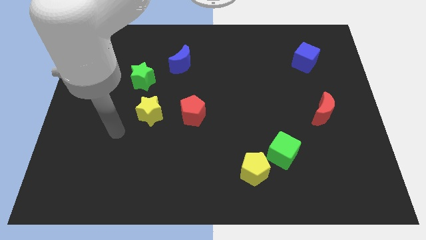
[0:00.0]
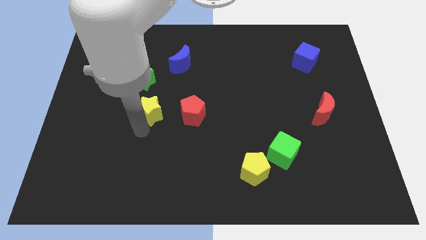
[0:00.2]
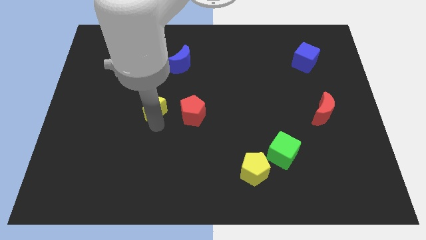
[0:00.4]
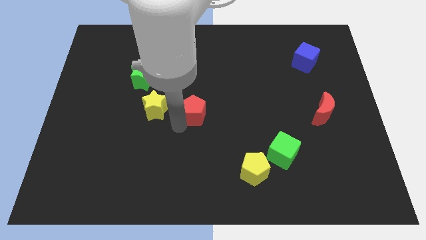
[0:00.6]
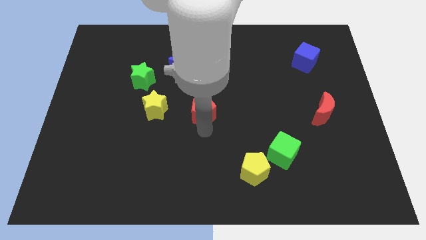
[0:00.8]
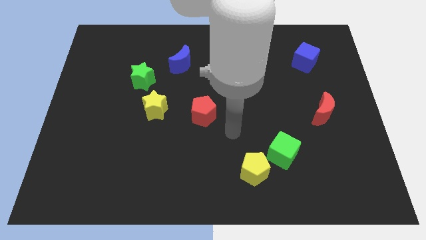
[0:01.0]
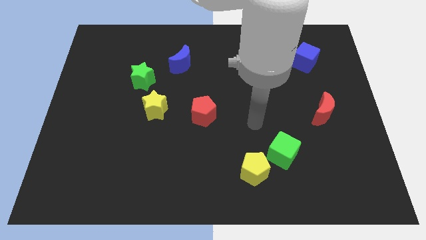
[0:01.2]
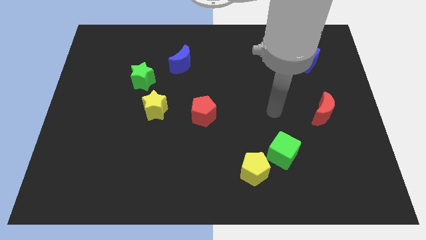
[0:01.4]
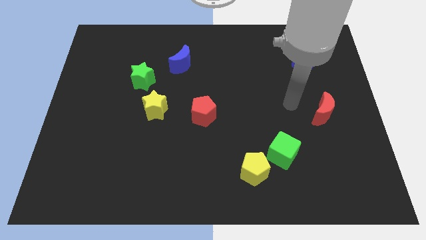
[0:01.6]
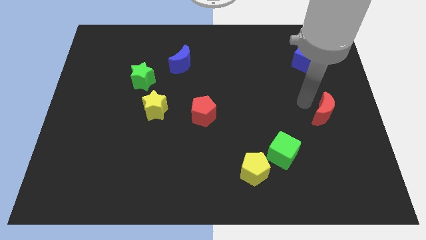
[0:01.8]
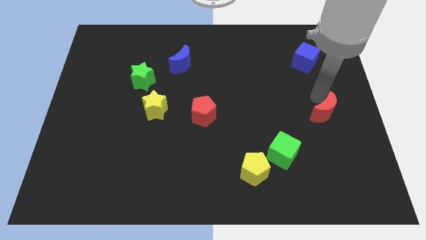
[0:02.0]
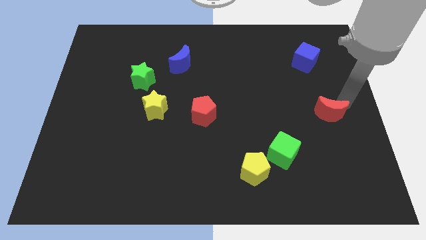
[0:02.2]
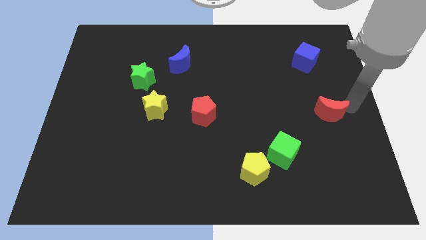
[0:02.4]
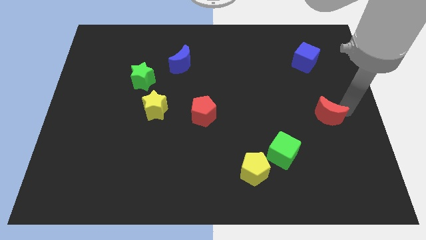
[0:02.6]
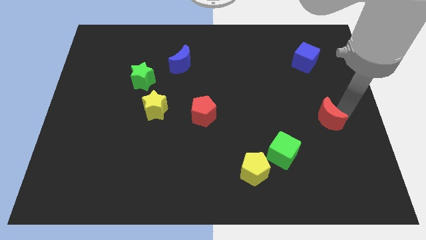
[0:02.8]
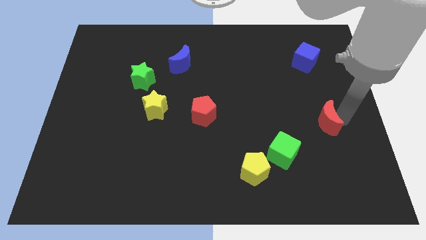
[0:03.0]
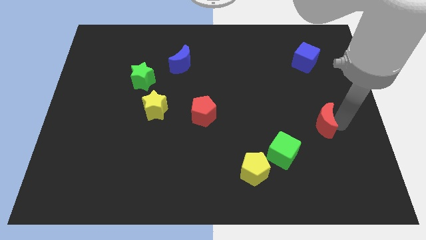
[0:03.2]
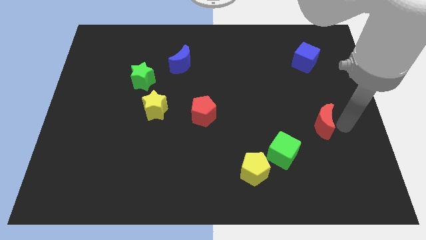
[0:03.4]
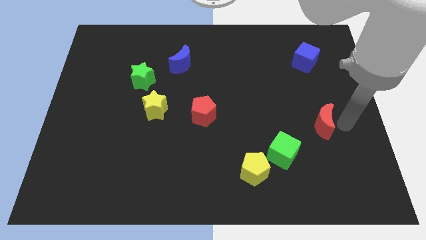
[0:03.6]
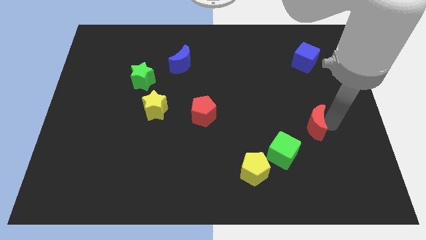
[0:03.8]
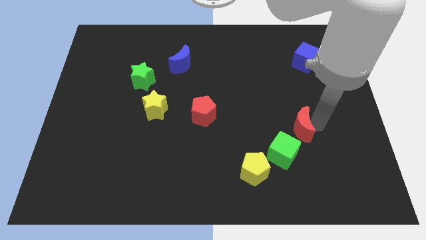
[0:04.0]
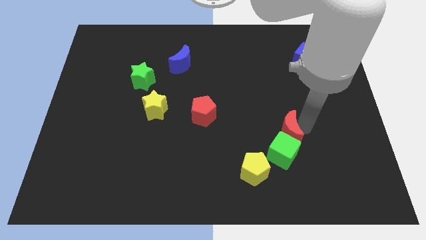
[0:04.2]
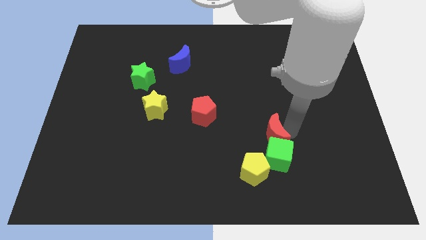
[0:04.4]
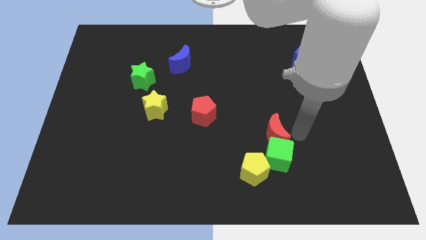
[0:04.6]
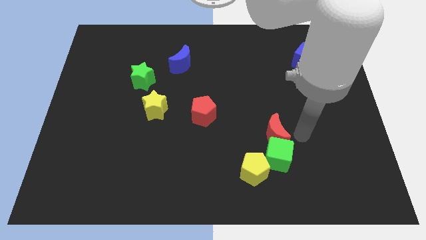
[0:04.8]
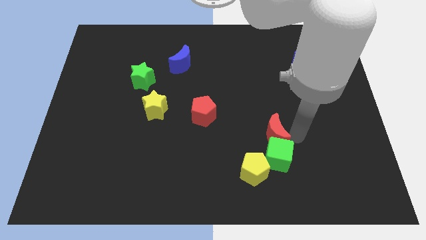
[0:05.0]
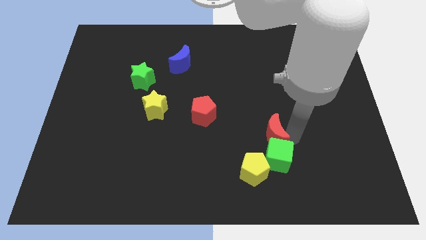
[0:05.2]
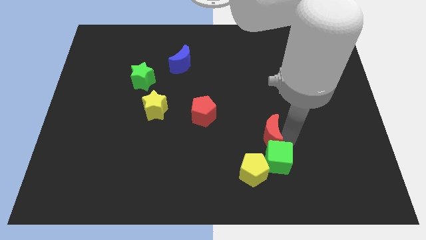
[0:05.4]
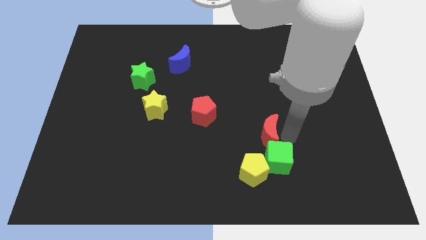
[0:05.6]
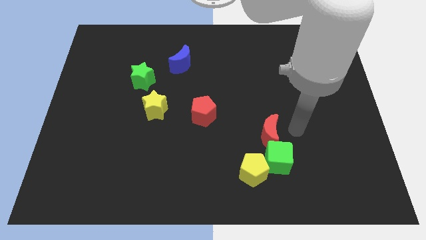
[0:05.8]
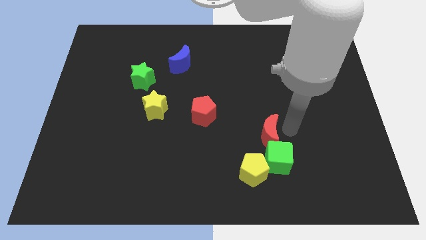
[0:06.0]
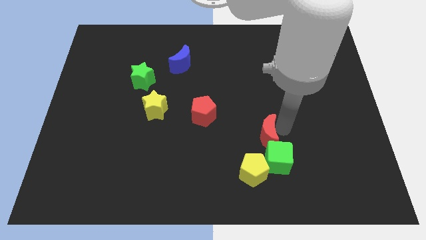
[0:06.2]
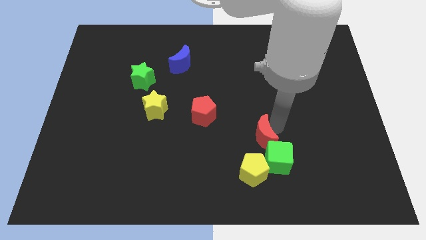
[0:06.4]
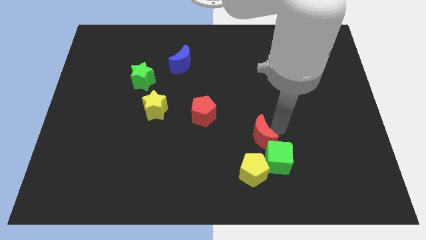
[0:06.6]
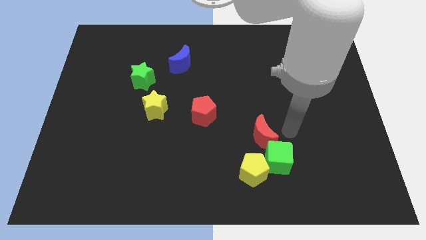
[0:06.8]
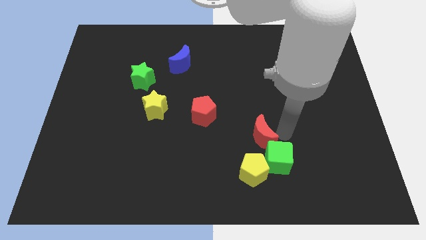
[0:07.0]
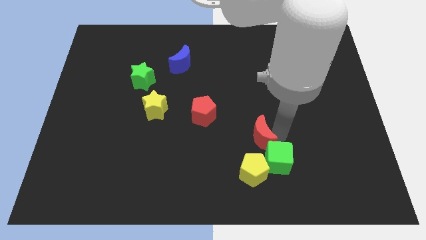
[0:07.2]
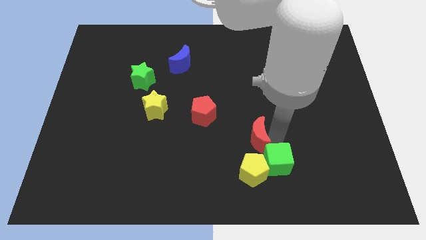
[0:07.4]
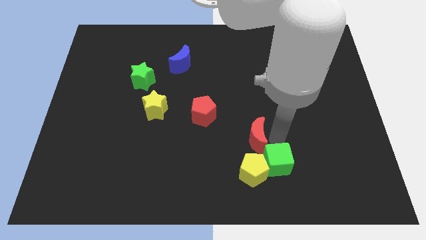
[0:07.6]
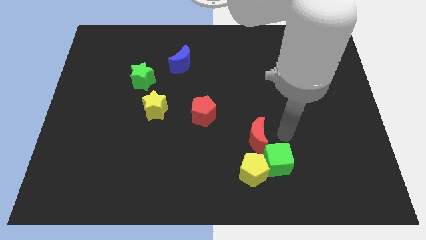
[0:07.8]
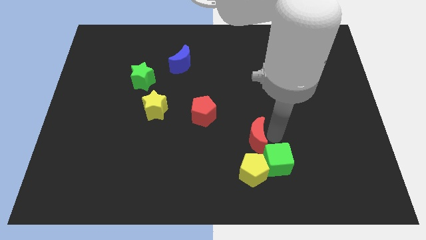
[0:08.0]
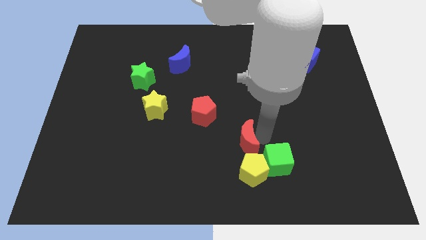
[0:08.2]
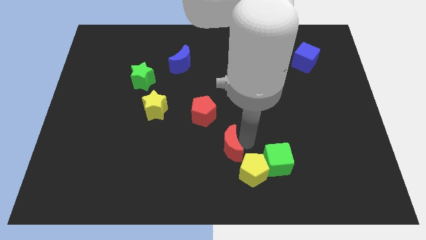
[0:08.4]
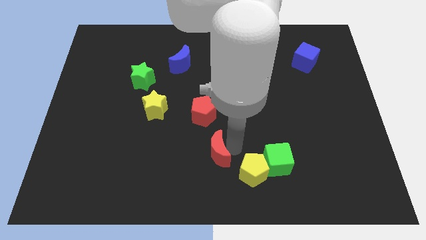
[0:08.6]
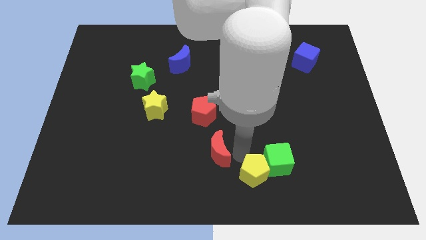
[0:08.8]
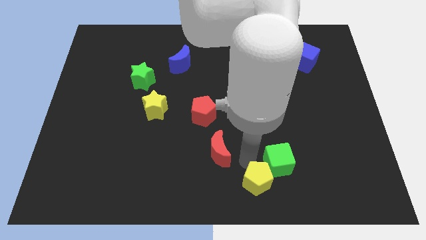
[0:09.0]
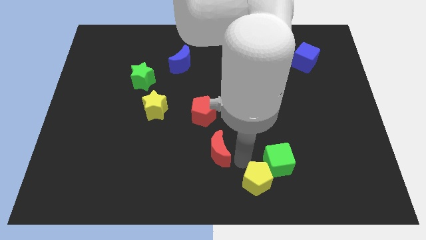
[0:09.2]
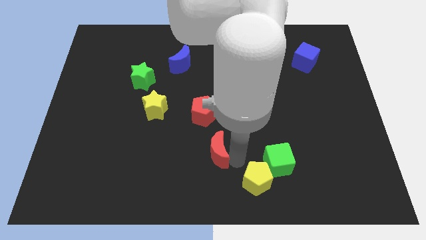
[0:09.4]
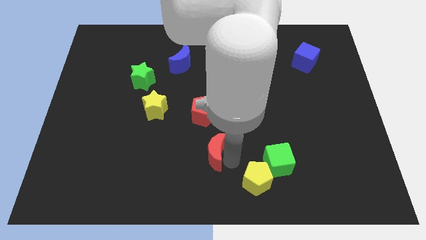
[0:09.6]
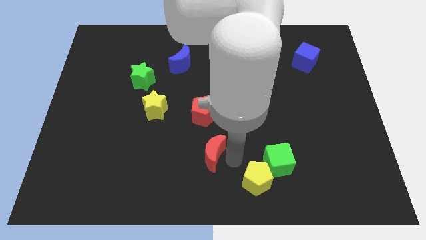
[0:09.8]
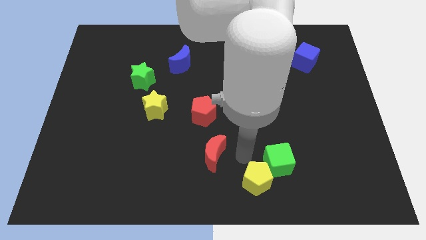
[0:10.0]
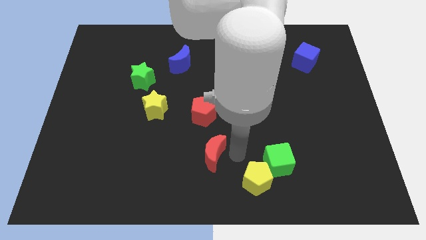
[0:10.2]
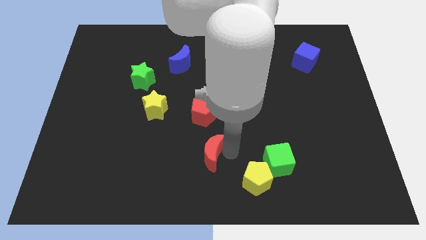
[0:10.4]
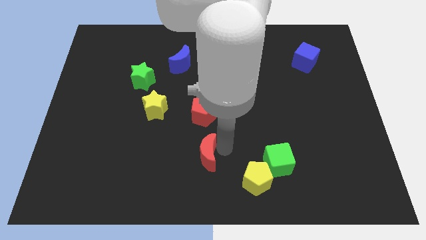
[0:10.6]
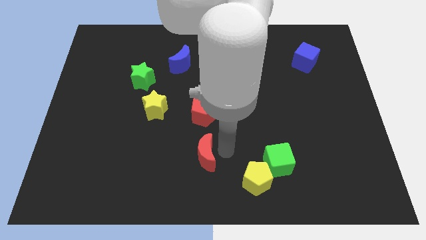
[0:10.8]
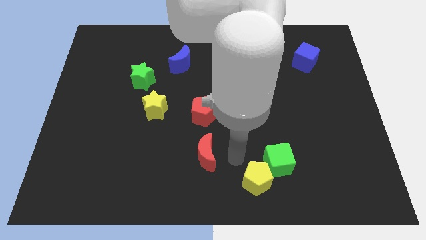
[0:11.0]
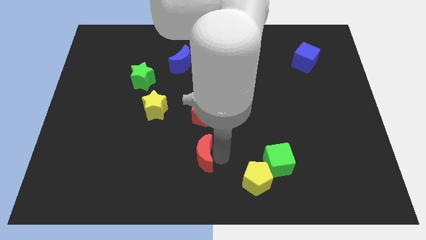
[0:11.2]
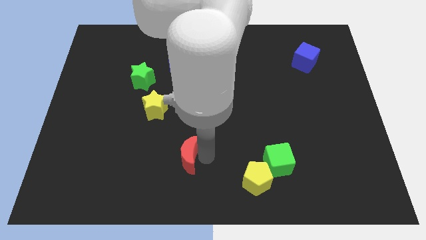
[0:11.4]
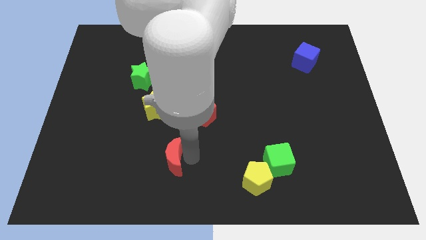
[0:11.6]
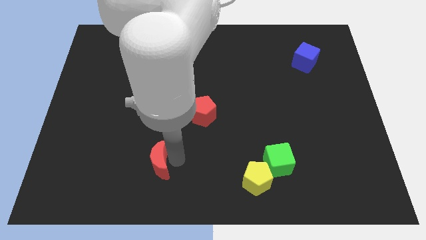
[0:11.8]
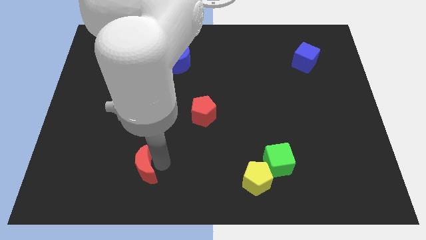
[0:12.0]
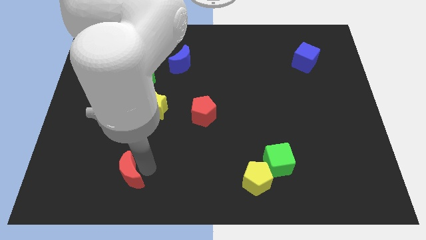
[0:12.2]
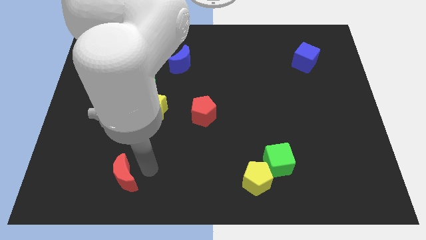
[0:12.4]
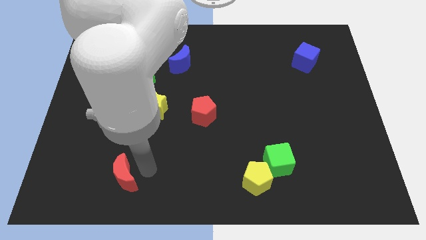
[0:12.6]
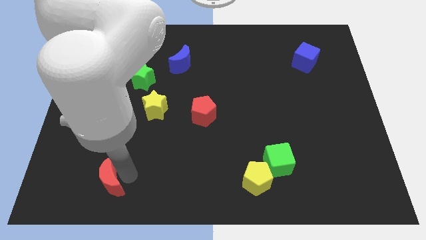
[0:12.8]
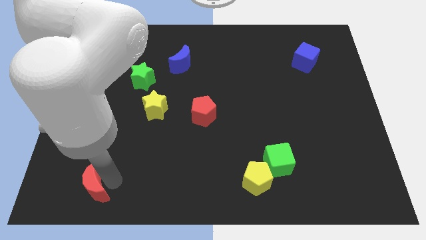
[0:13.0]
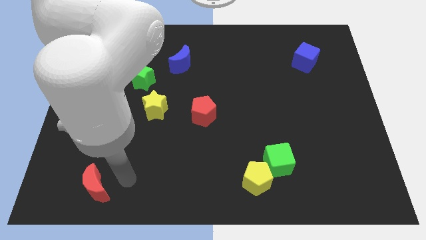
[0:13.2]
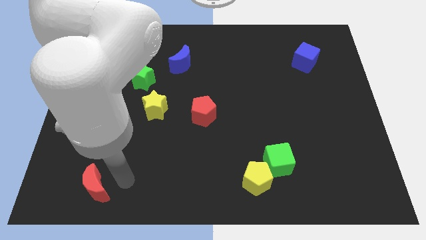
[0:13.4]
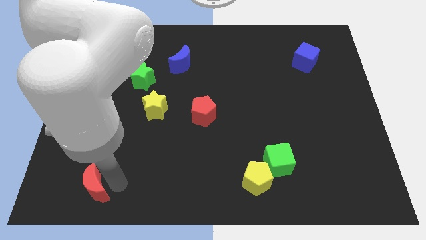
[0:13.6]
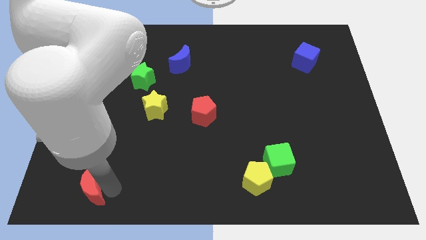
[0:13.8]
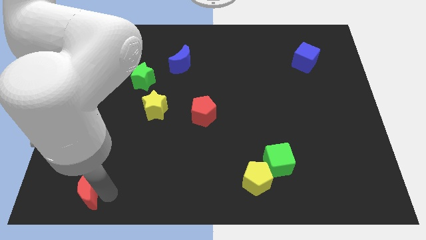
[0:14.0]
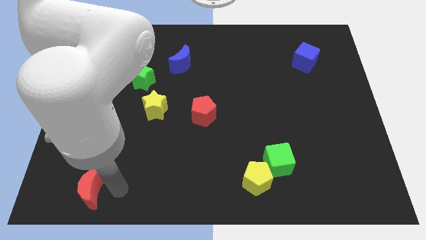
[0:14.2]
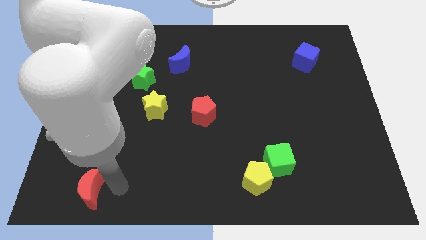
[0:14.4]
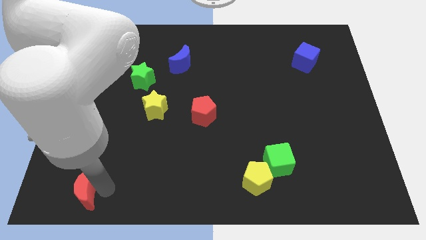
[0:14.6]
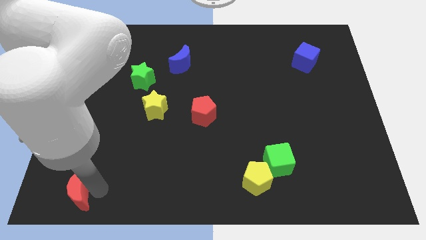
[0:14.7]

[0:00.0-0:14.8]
push the red moon to the bottom left of the board
